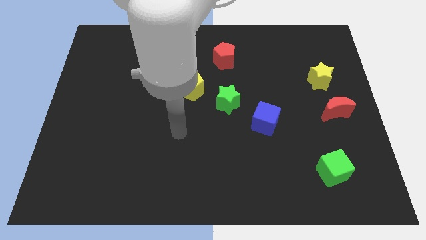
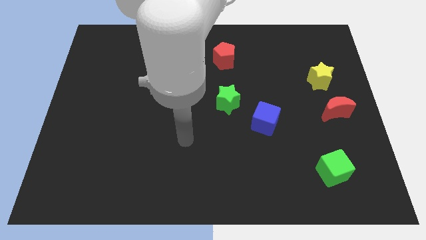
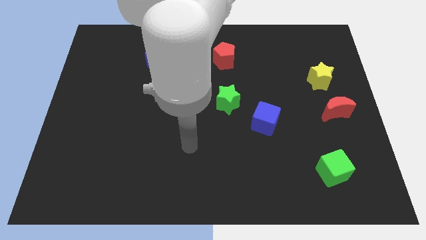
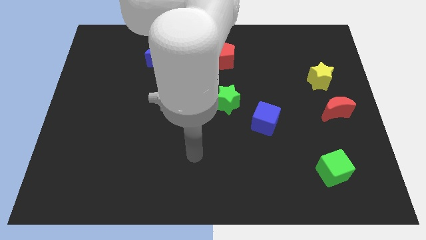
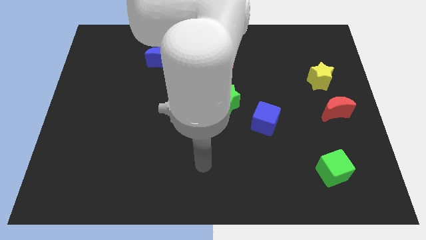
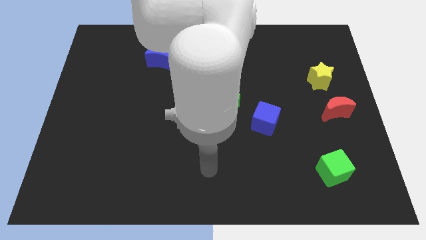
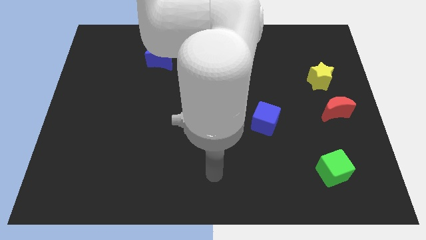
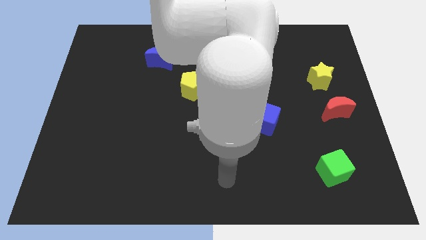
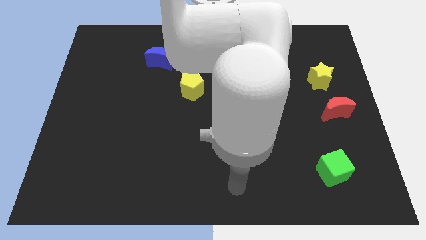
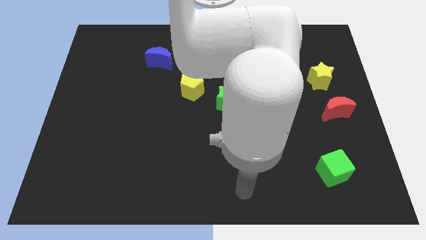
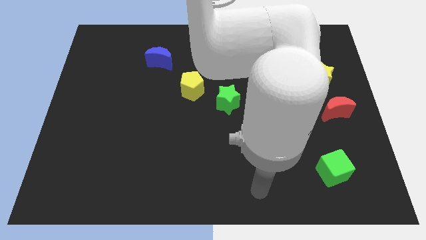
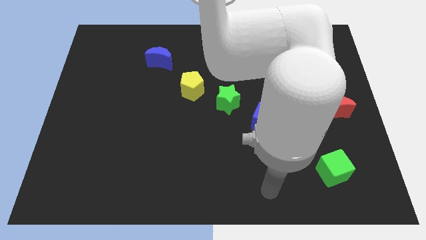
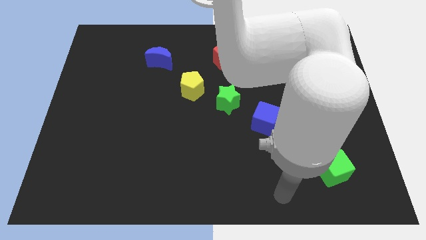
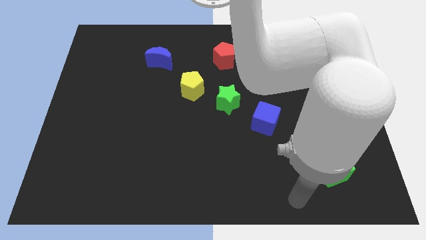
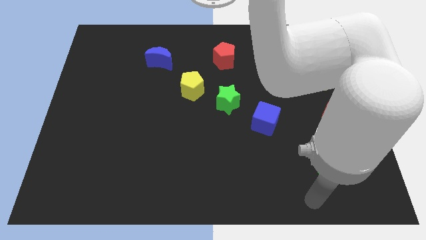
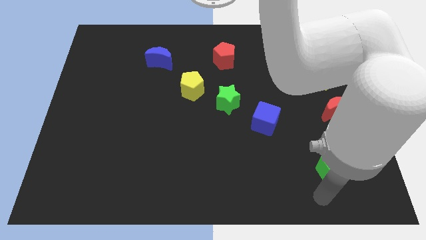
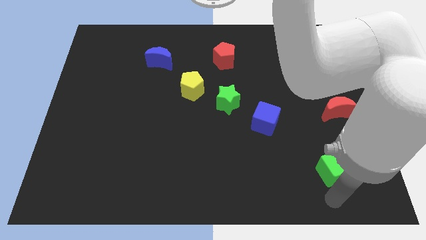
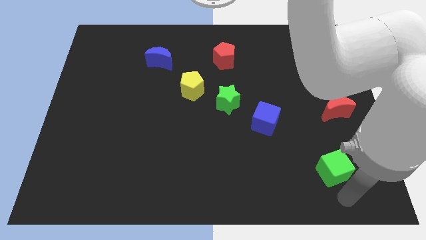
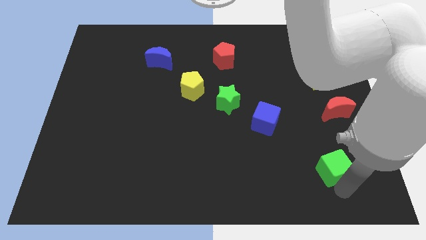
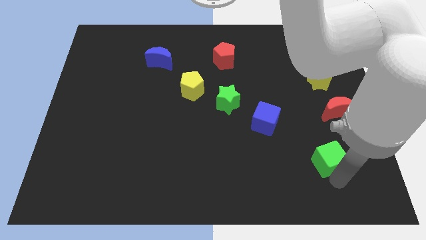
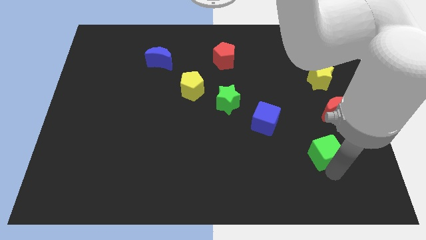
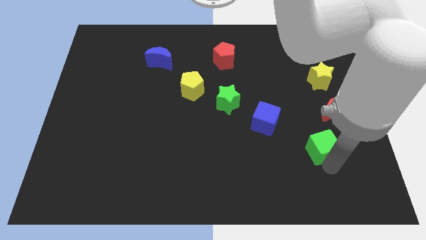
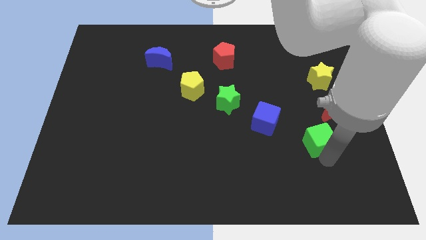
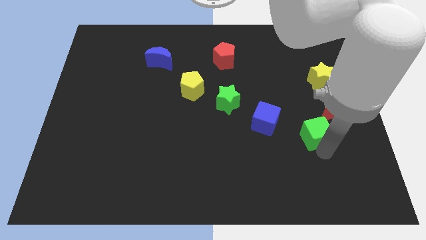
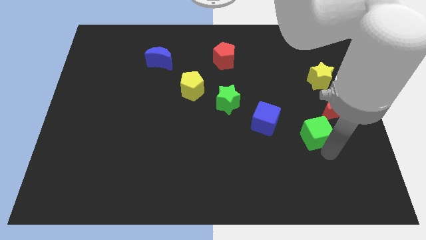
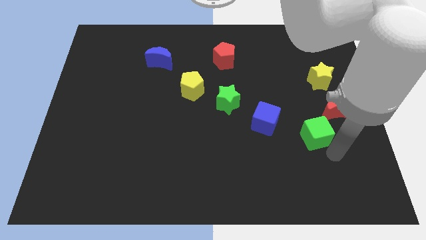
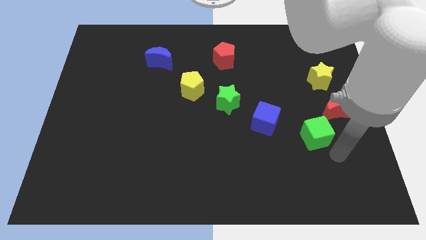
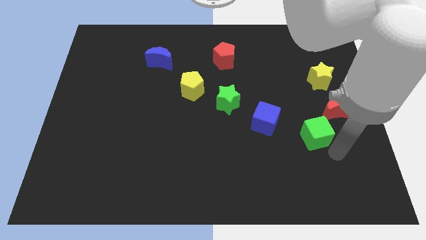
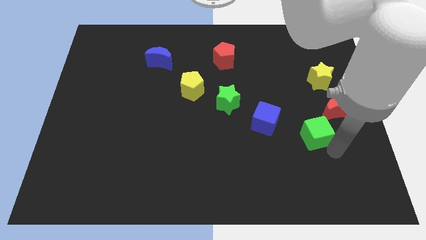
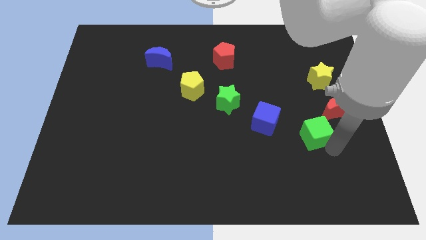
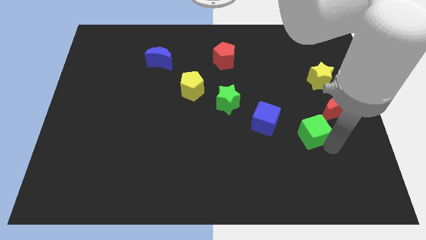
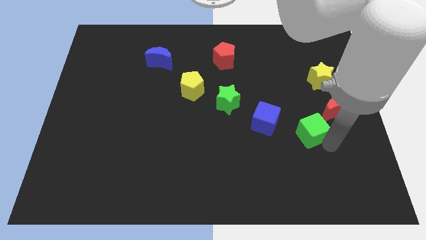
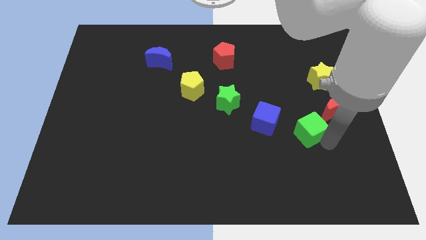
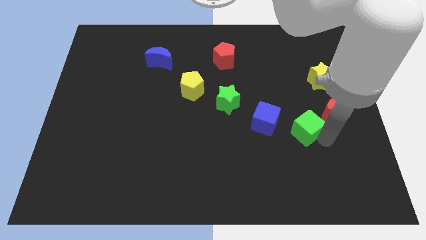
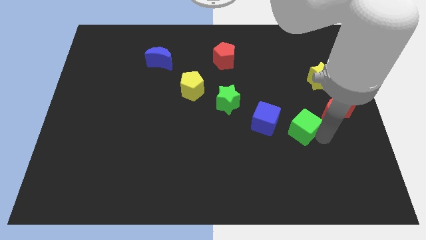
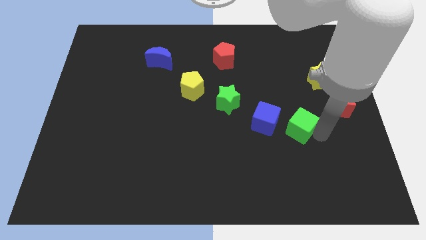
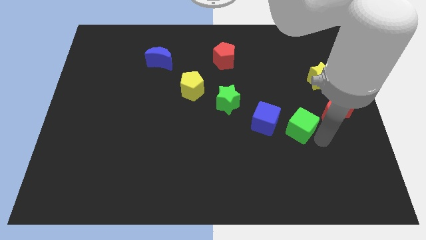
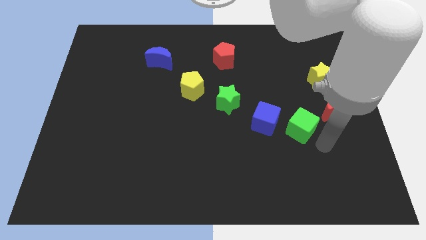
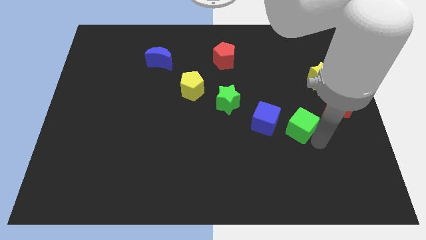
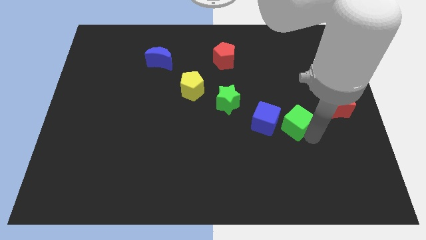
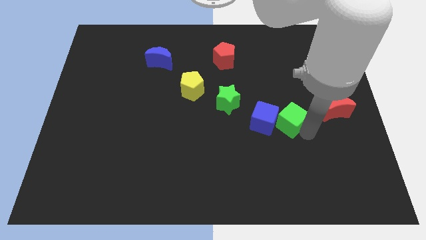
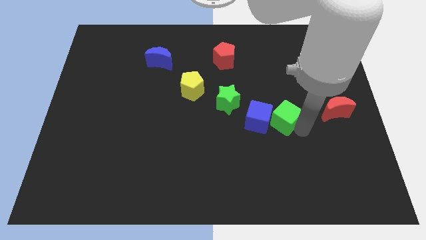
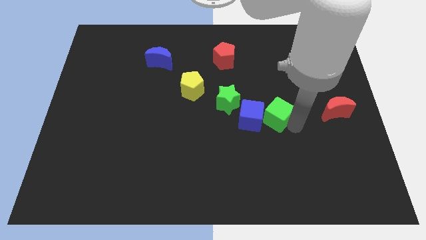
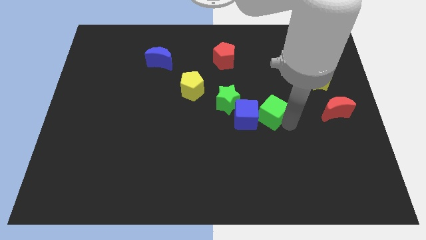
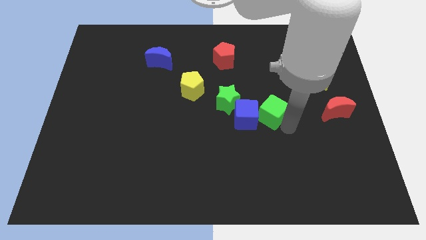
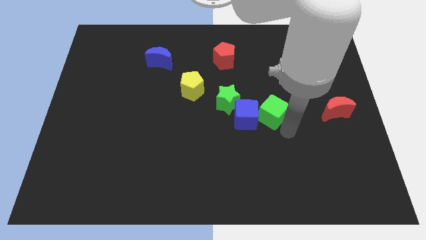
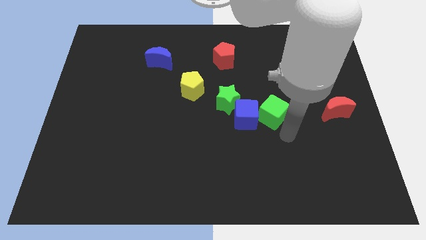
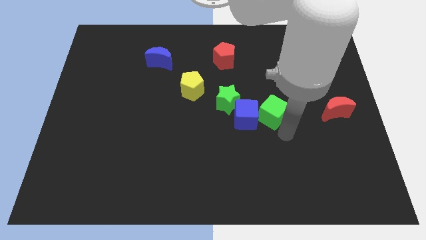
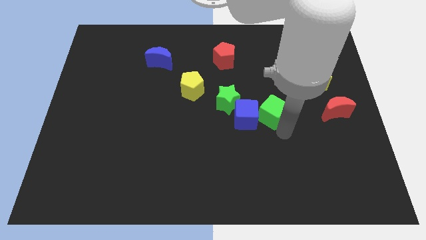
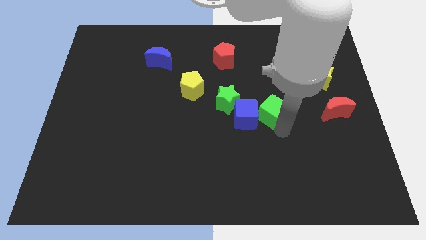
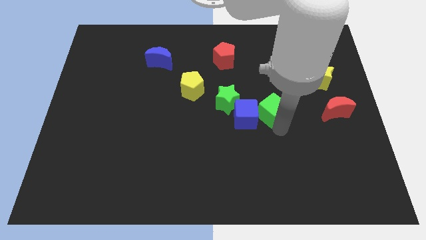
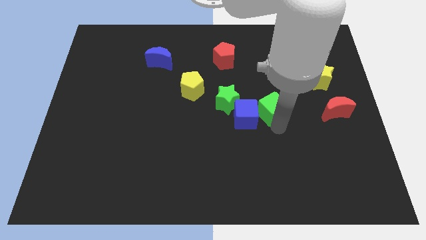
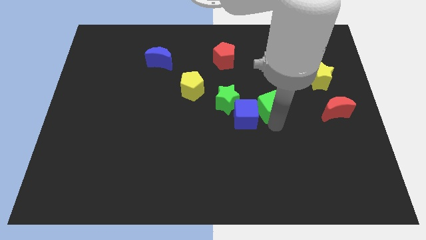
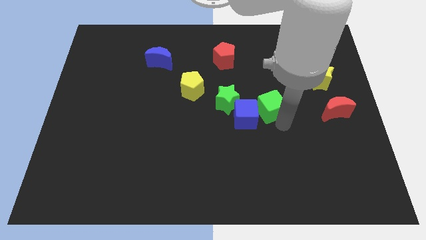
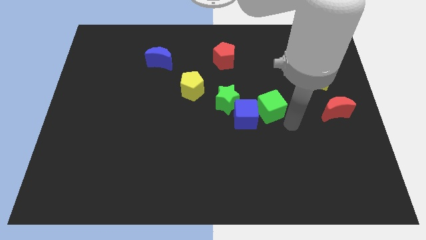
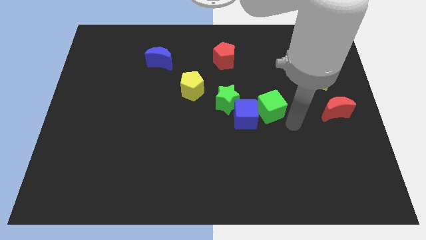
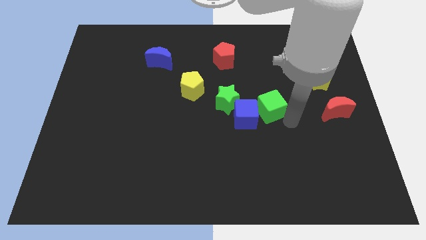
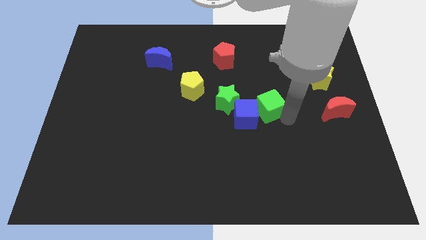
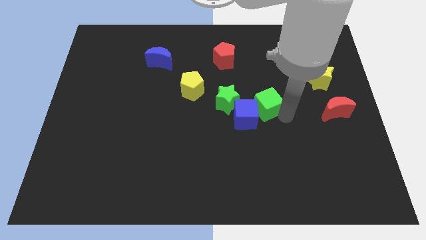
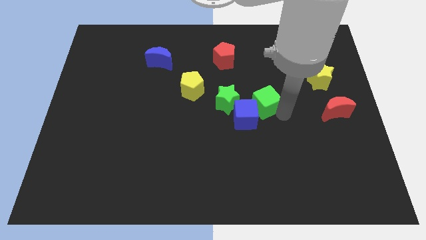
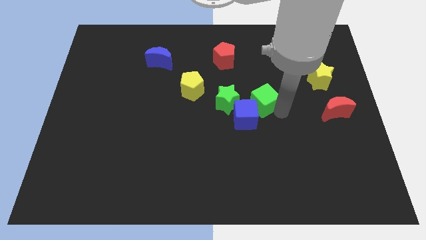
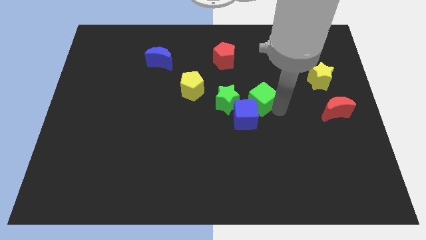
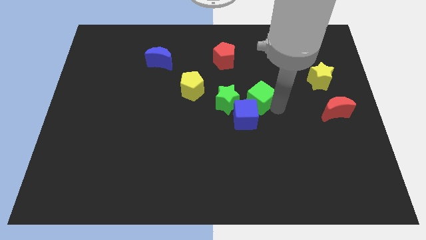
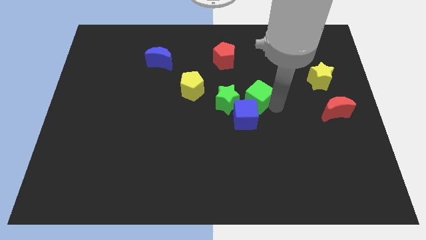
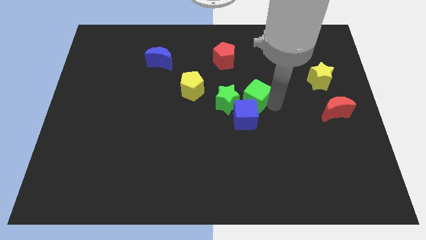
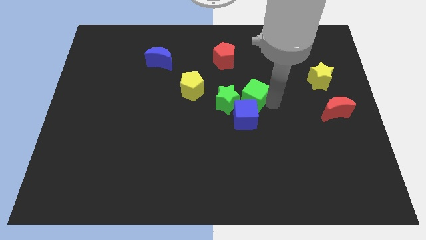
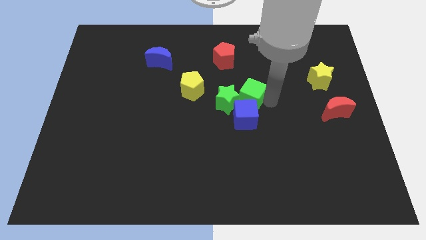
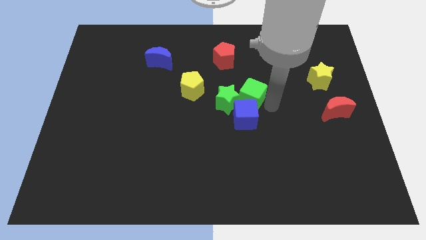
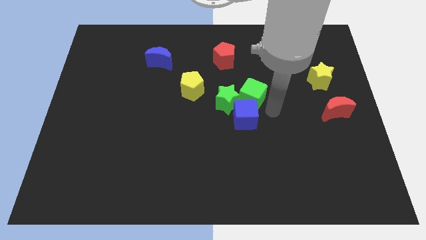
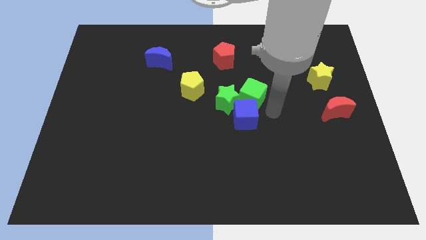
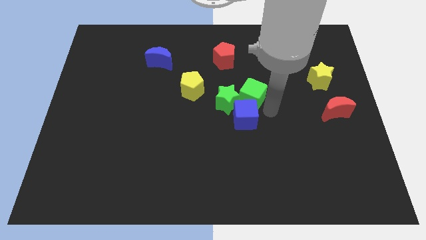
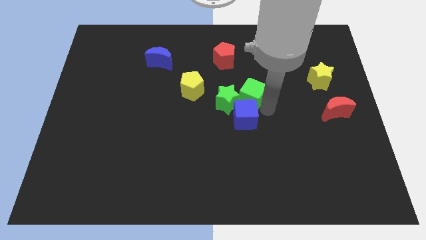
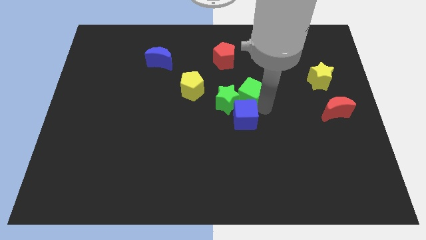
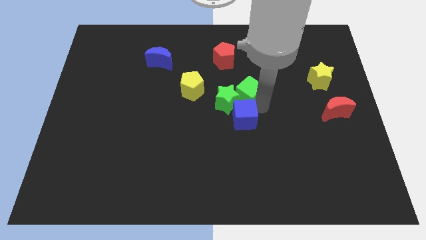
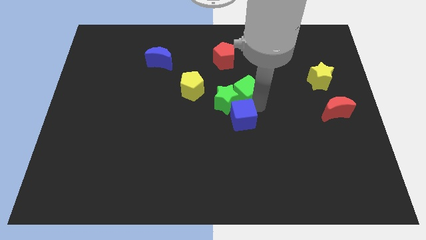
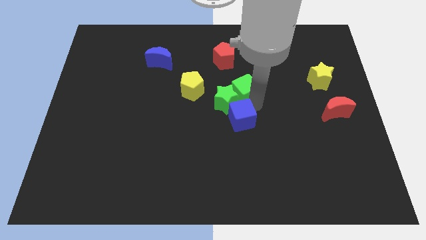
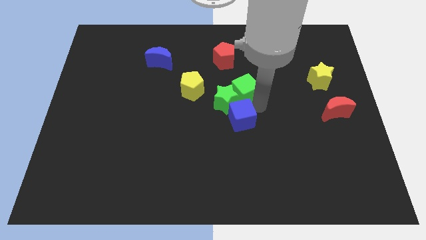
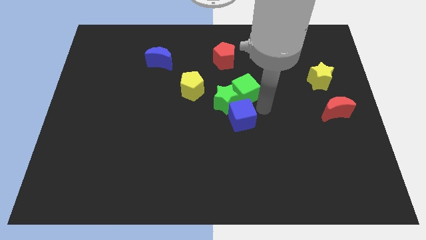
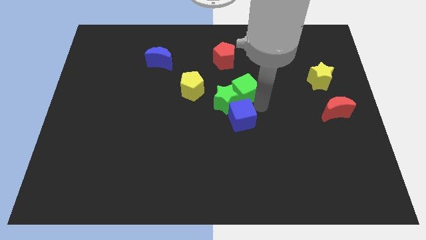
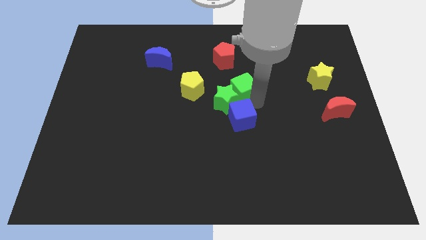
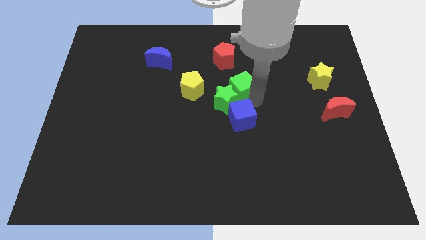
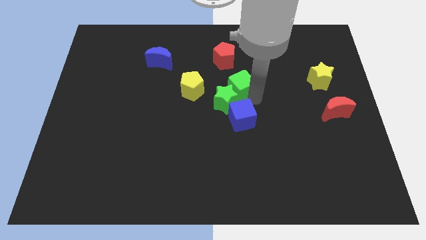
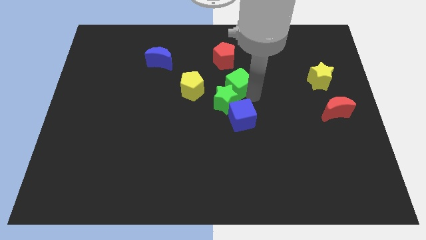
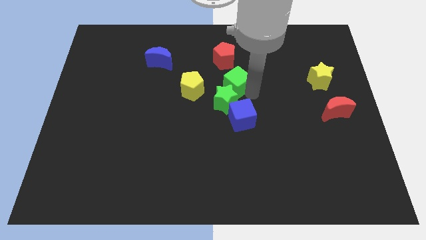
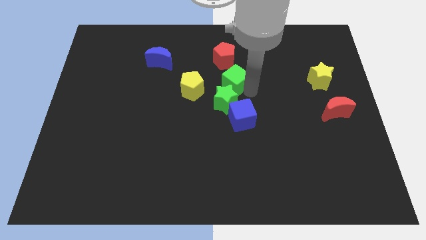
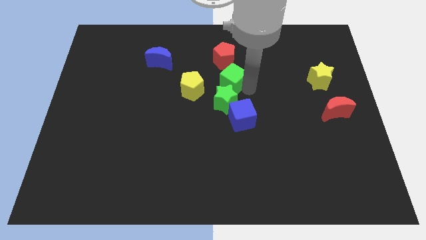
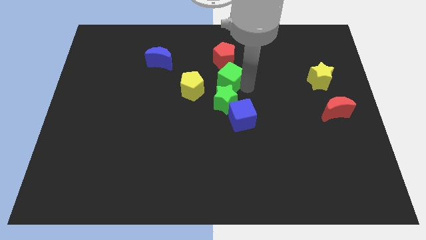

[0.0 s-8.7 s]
push the green cube diagonally up and to the right of the yellow pentagon
